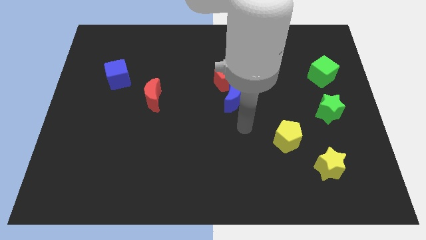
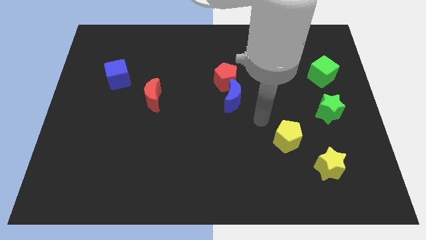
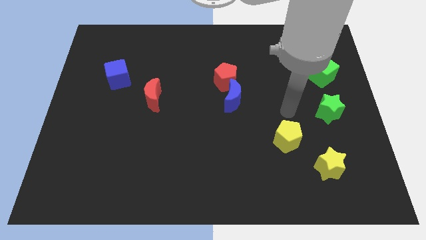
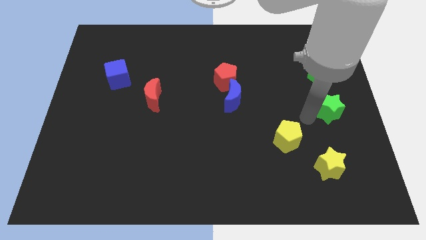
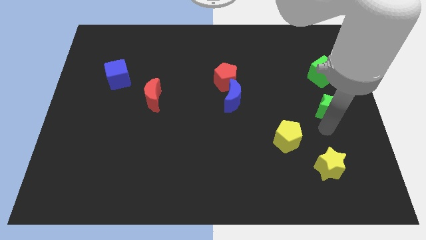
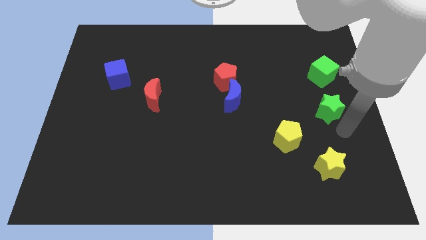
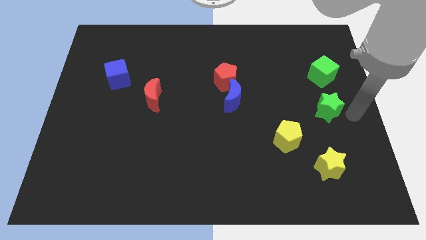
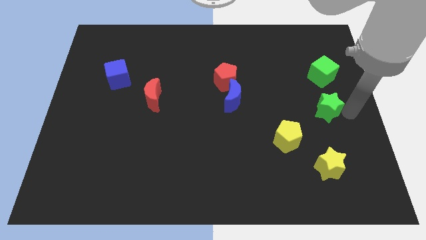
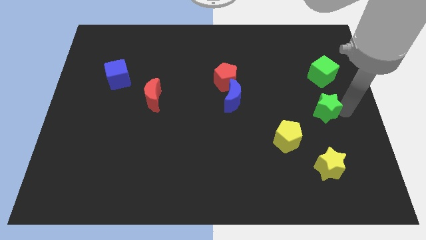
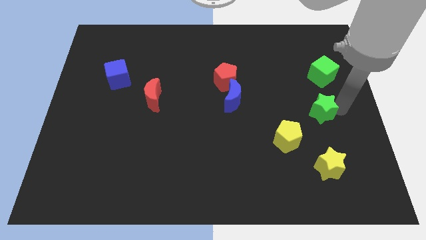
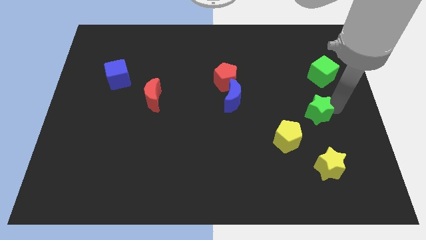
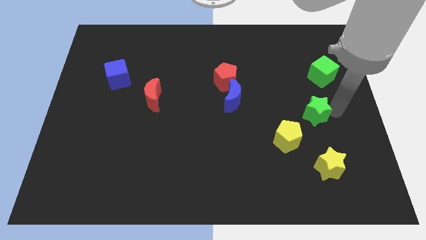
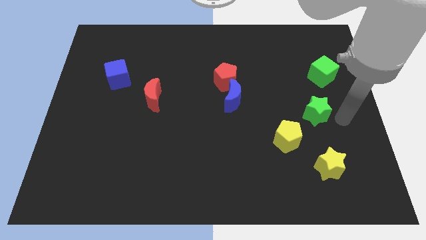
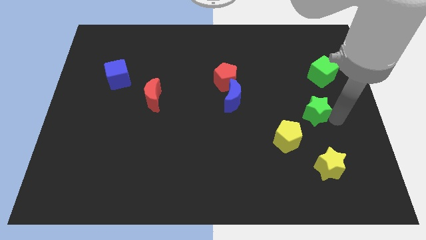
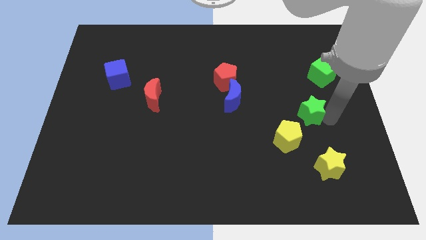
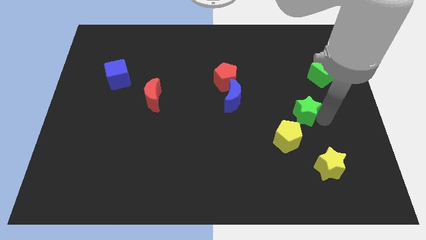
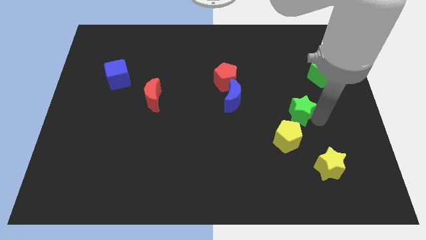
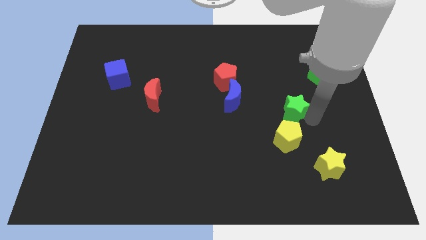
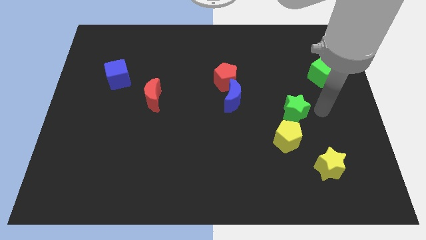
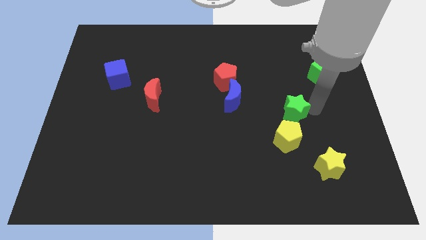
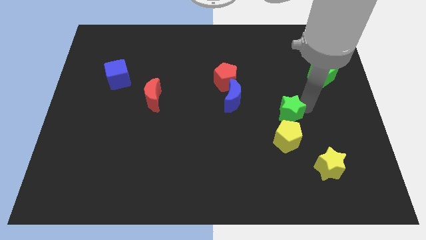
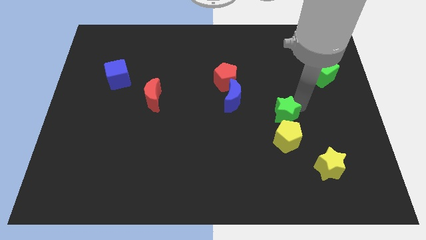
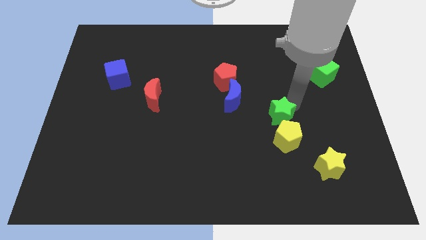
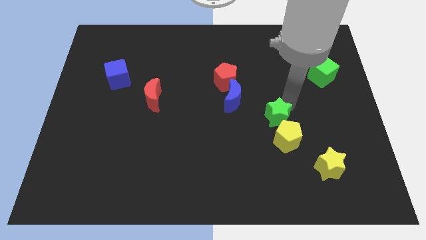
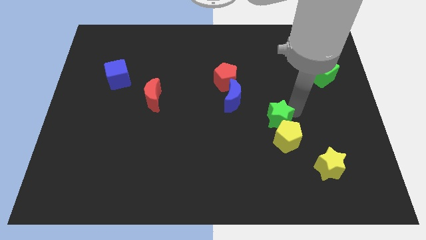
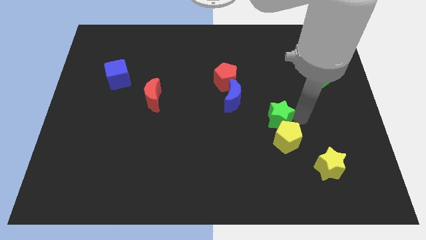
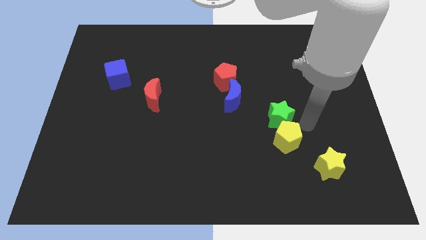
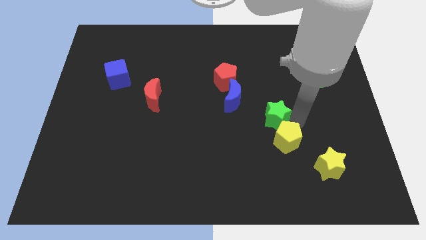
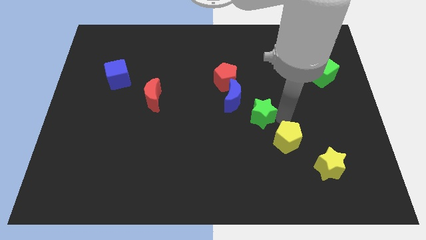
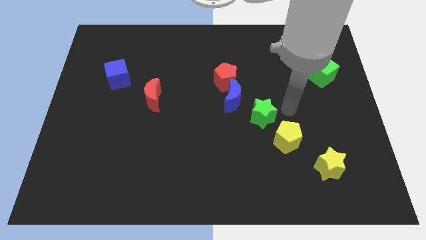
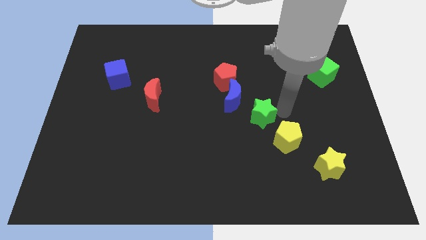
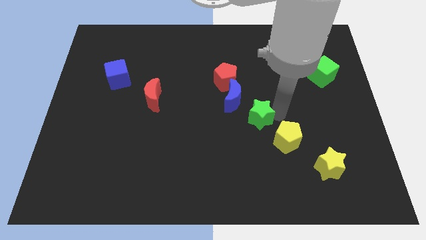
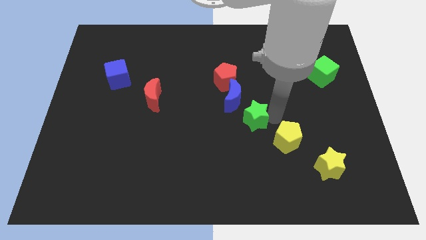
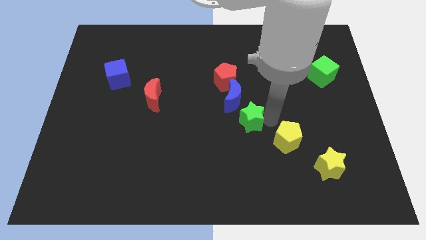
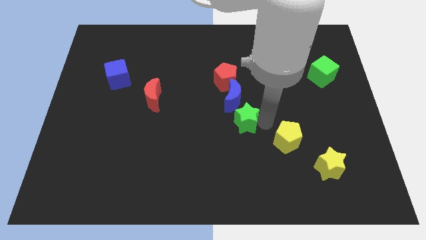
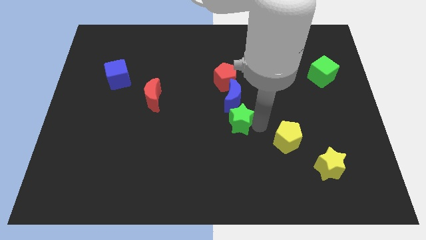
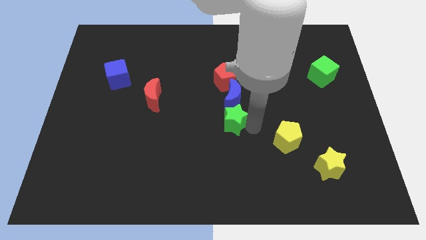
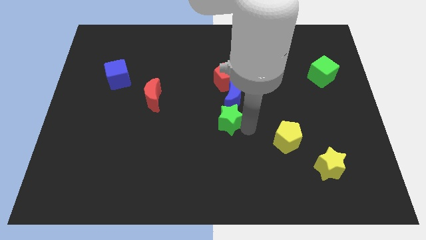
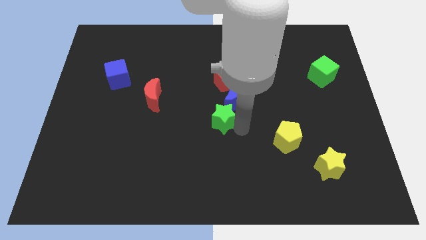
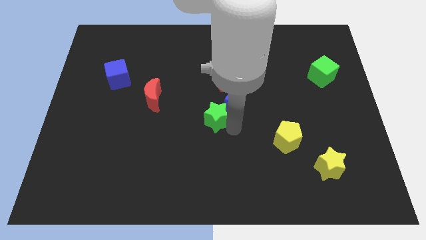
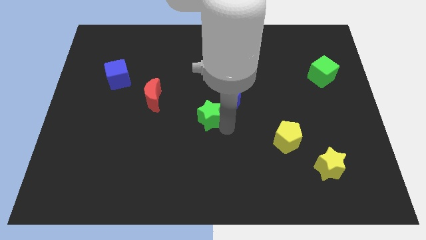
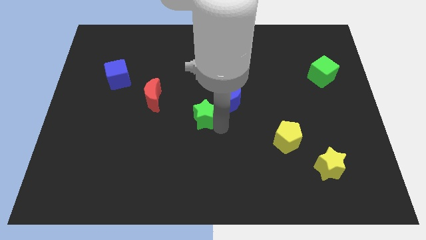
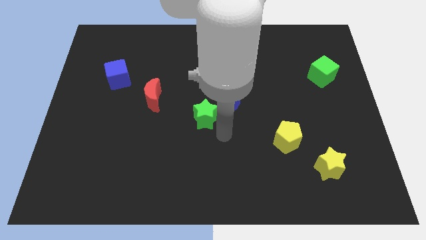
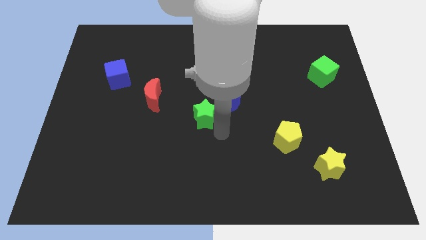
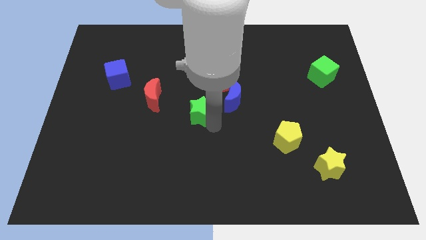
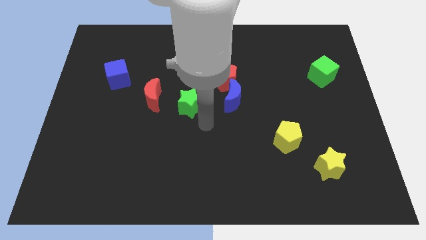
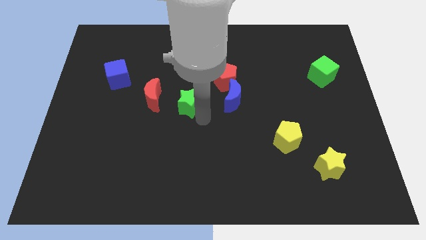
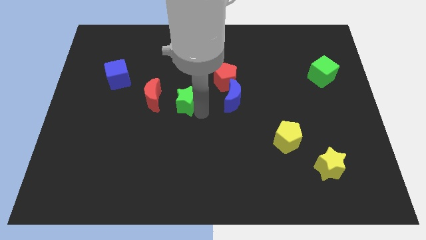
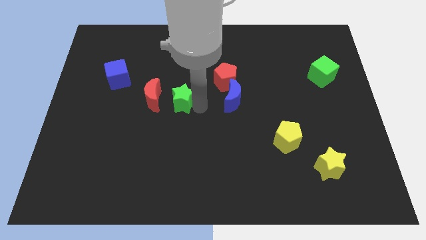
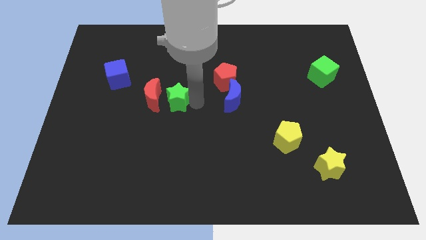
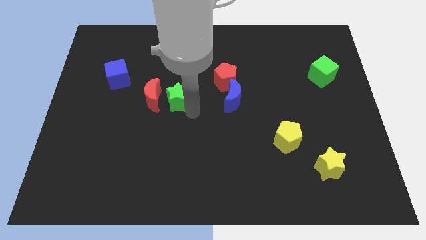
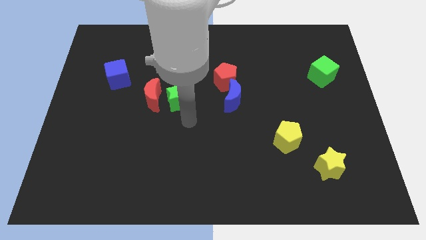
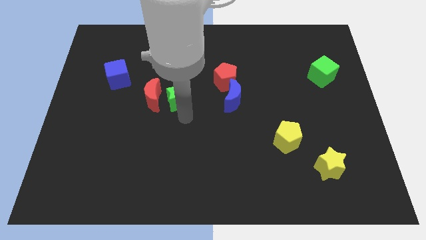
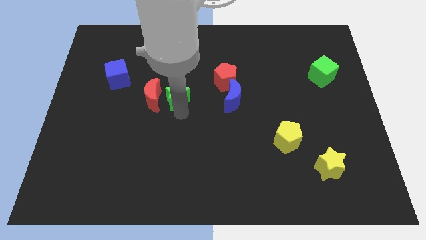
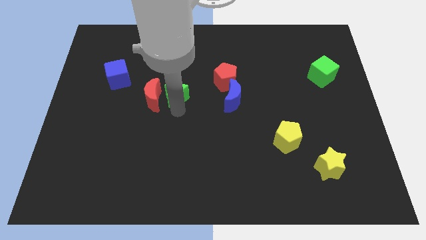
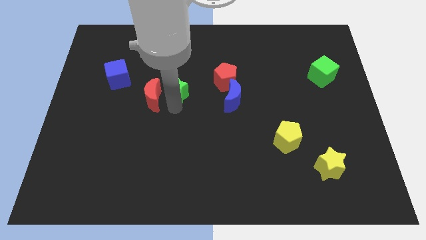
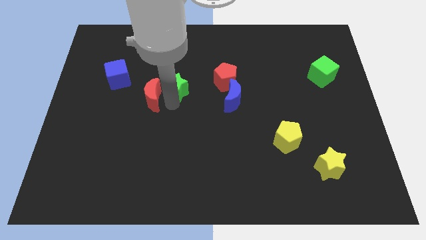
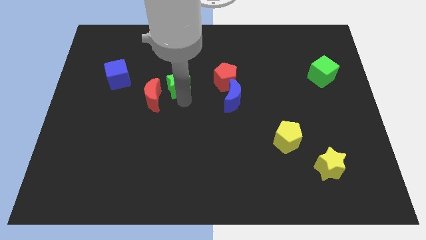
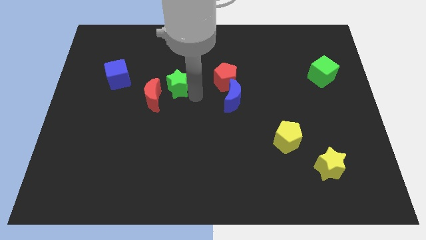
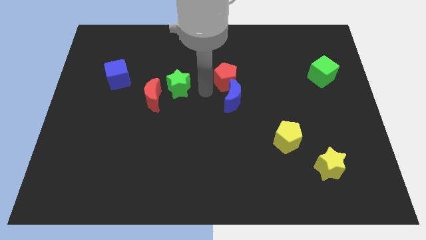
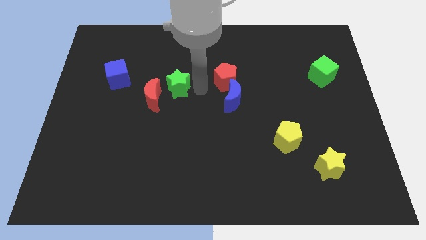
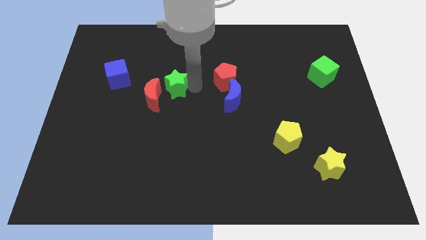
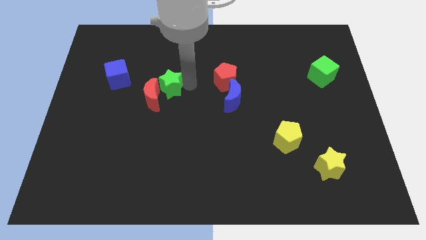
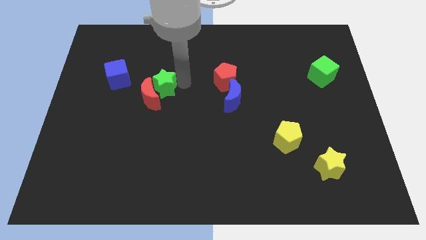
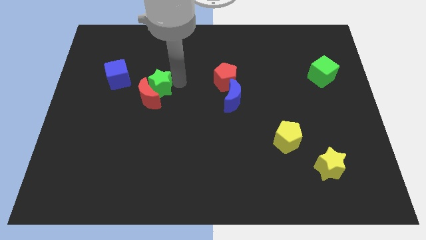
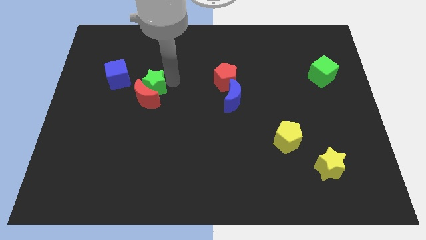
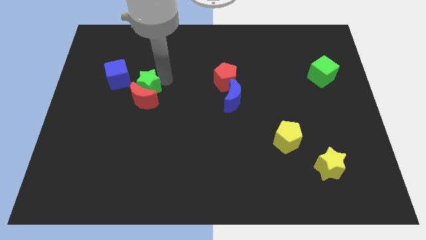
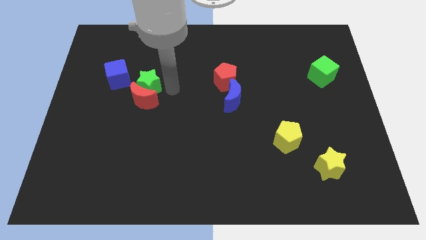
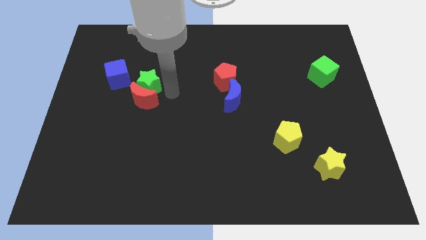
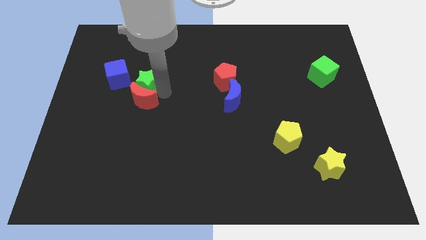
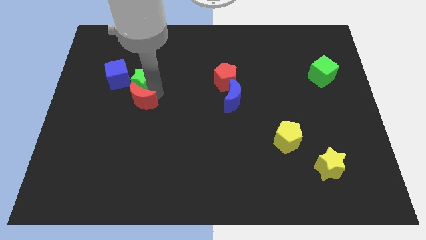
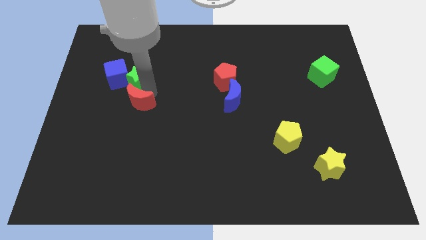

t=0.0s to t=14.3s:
put the green star towards the blue cube
